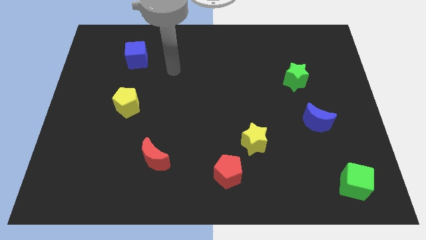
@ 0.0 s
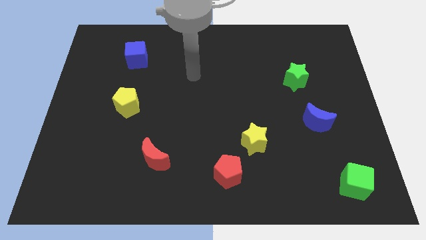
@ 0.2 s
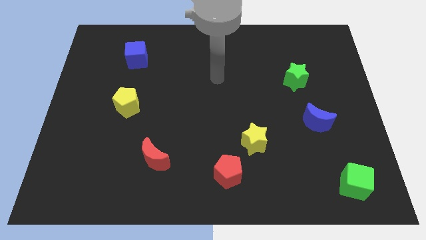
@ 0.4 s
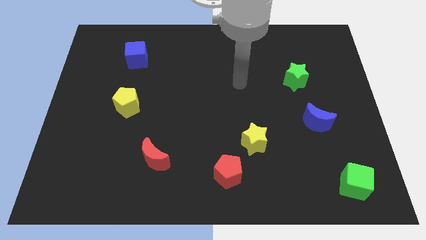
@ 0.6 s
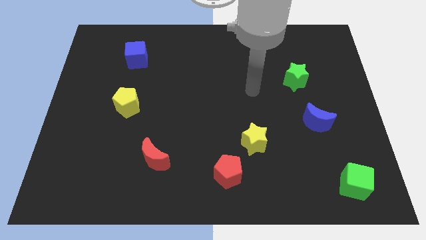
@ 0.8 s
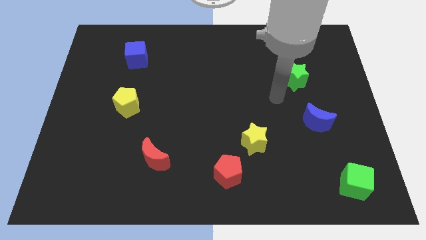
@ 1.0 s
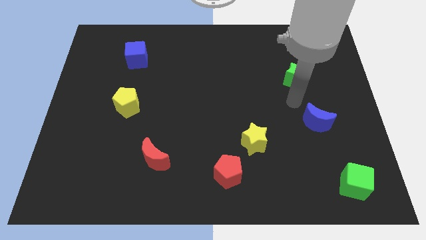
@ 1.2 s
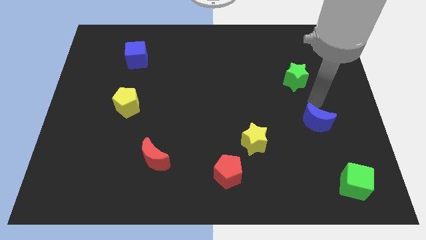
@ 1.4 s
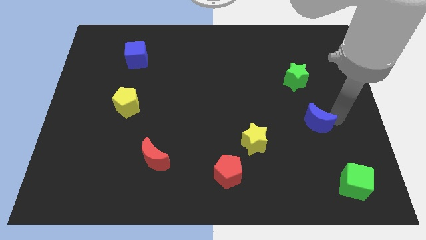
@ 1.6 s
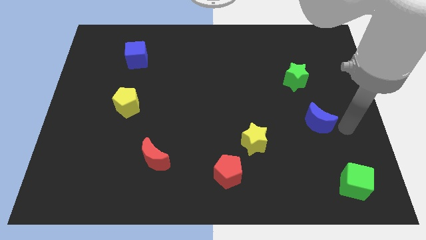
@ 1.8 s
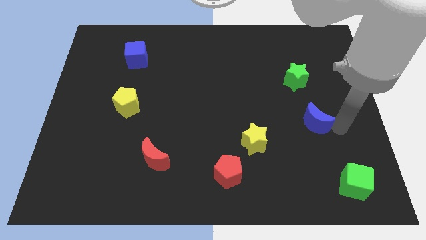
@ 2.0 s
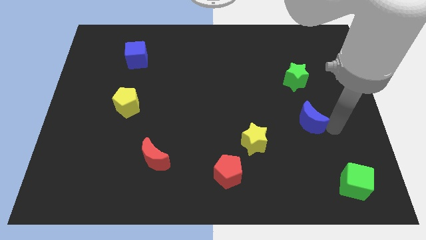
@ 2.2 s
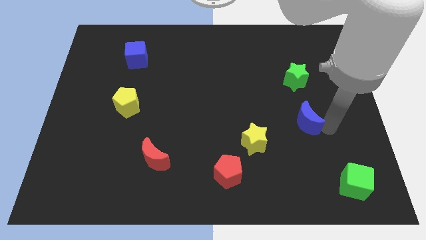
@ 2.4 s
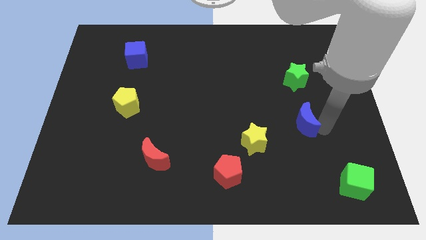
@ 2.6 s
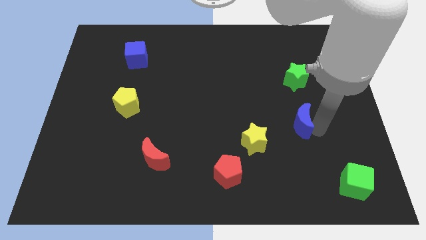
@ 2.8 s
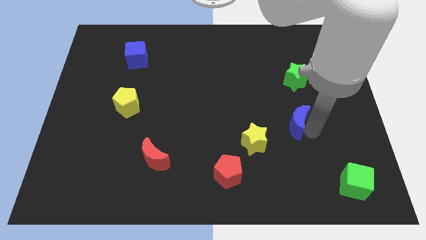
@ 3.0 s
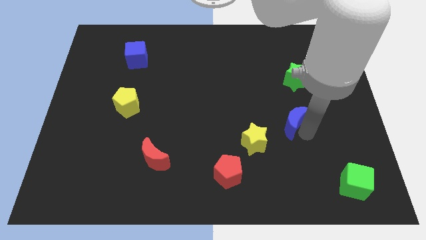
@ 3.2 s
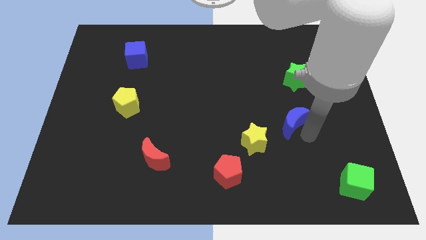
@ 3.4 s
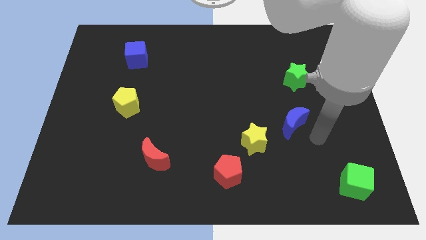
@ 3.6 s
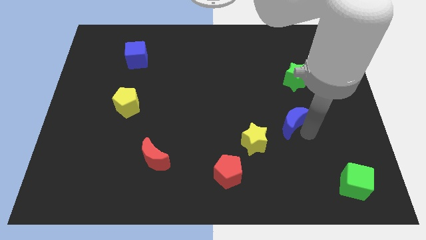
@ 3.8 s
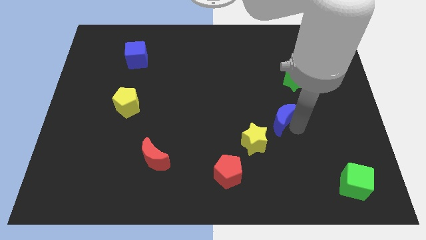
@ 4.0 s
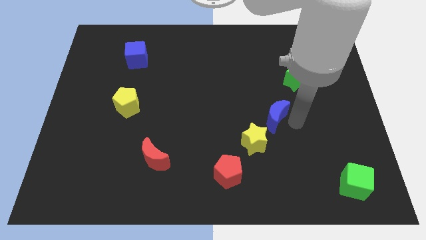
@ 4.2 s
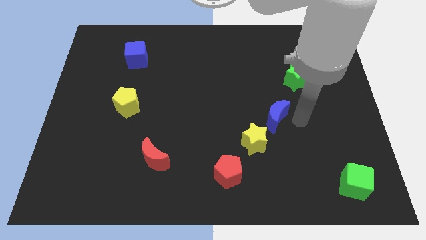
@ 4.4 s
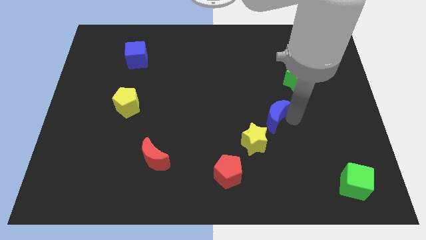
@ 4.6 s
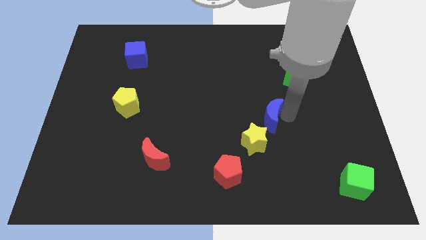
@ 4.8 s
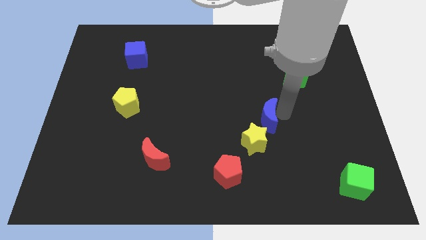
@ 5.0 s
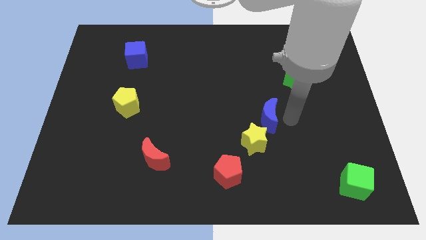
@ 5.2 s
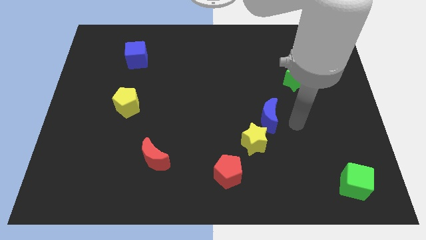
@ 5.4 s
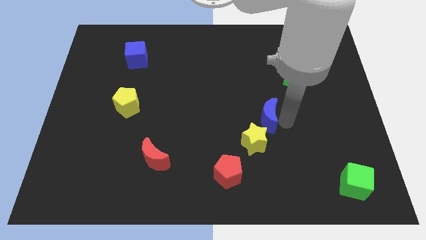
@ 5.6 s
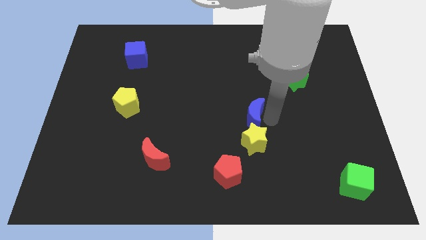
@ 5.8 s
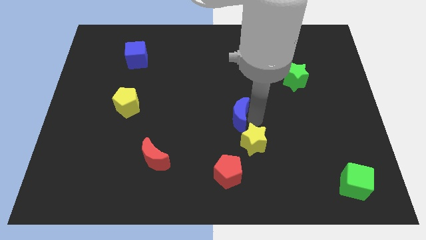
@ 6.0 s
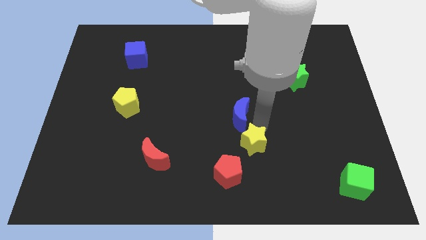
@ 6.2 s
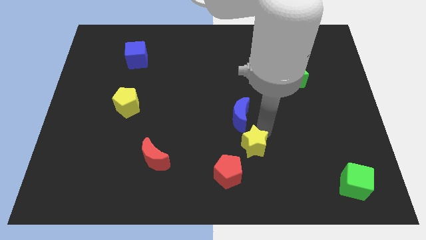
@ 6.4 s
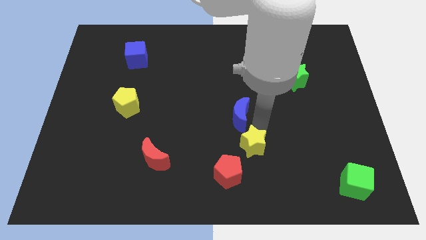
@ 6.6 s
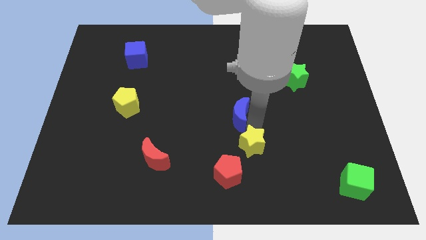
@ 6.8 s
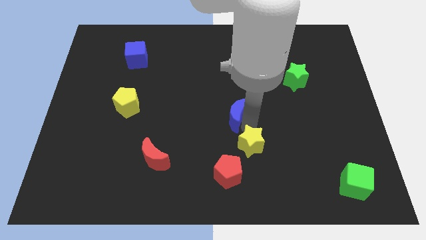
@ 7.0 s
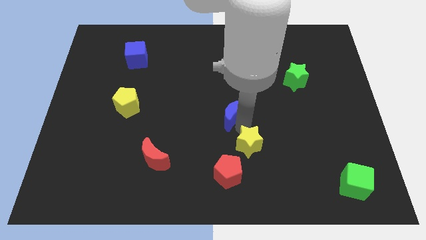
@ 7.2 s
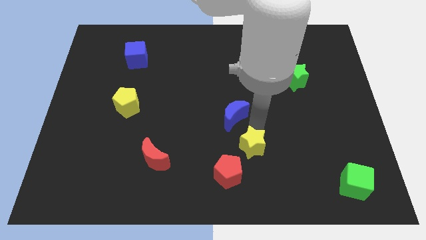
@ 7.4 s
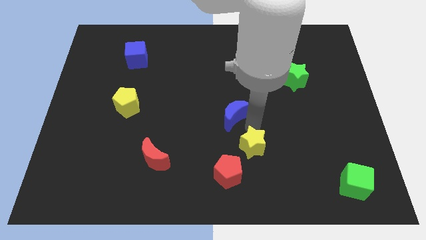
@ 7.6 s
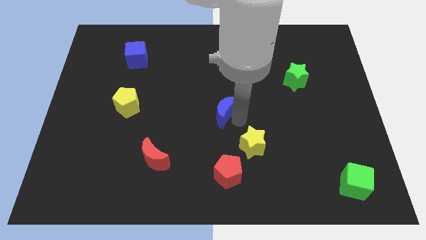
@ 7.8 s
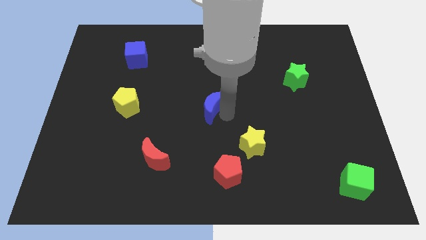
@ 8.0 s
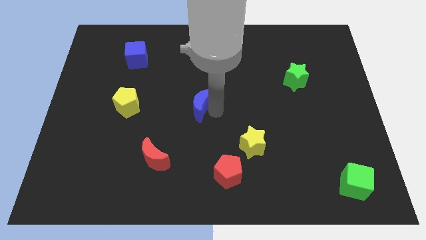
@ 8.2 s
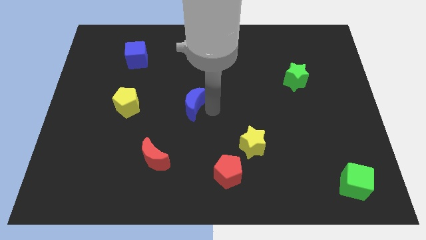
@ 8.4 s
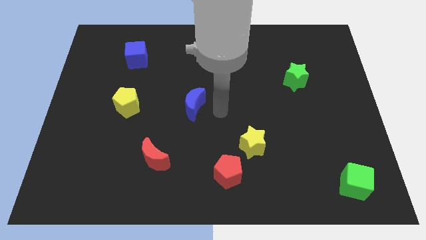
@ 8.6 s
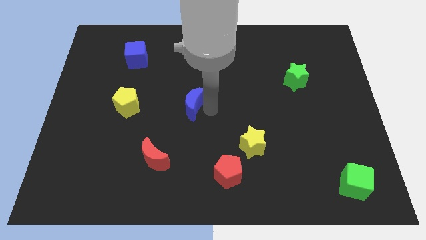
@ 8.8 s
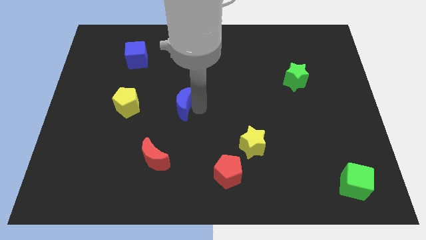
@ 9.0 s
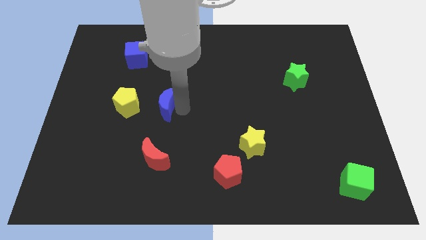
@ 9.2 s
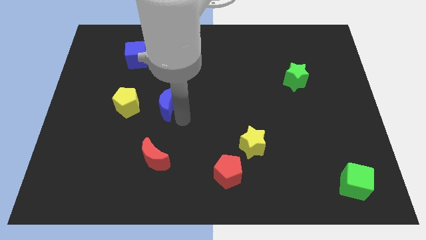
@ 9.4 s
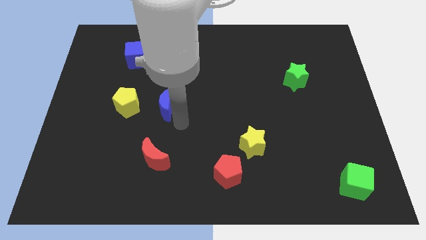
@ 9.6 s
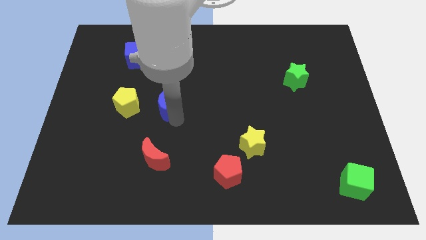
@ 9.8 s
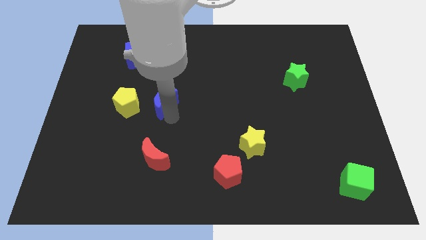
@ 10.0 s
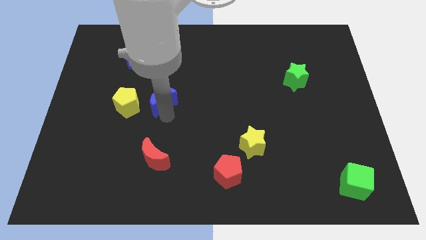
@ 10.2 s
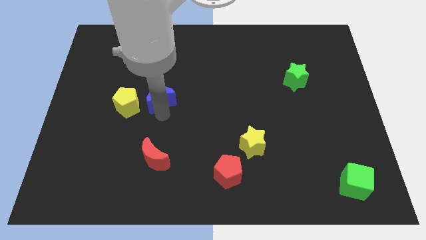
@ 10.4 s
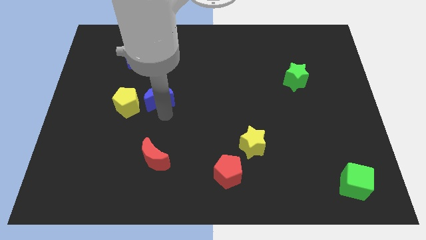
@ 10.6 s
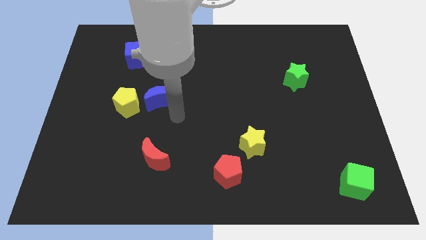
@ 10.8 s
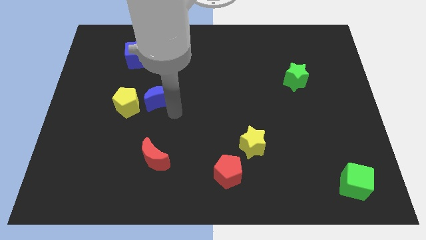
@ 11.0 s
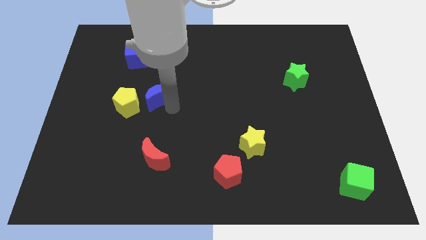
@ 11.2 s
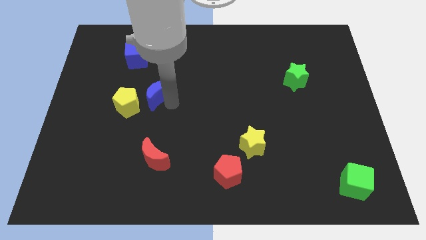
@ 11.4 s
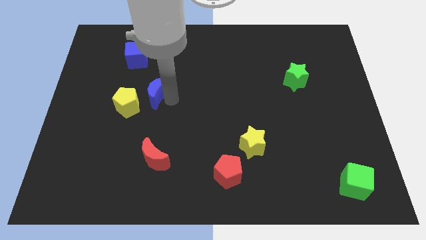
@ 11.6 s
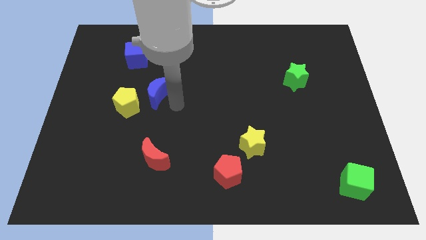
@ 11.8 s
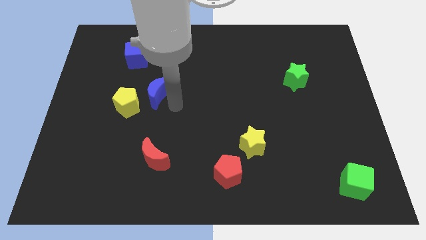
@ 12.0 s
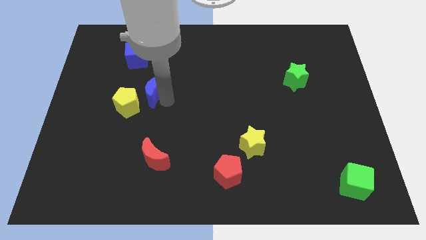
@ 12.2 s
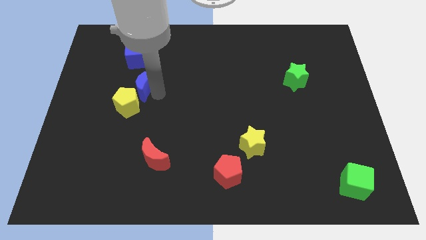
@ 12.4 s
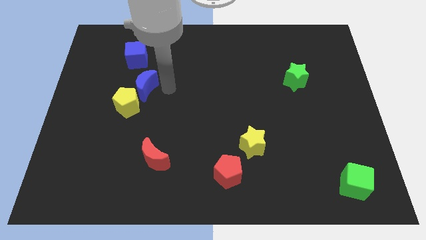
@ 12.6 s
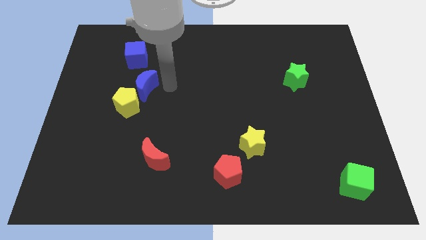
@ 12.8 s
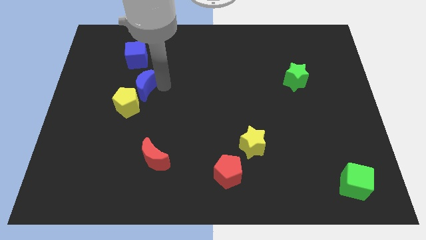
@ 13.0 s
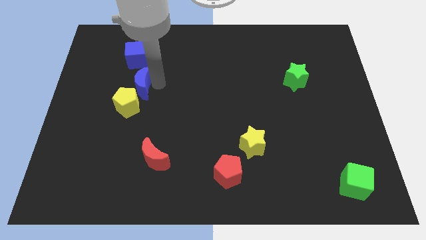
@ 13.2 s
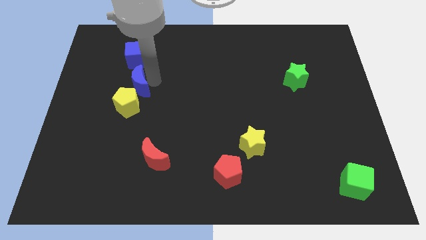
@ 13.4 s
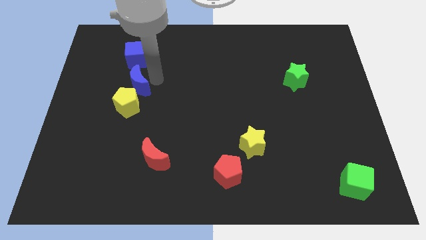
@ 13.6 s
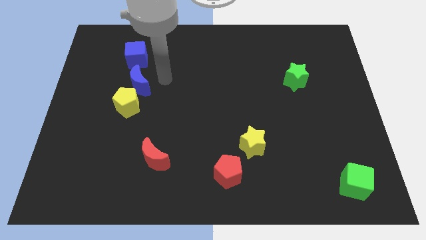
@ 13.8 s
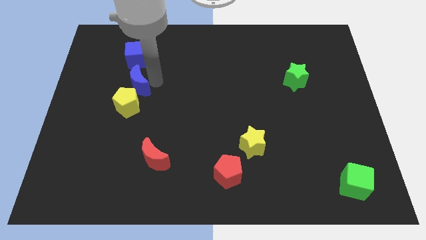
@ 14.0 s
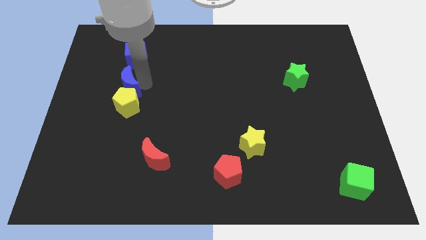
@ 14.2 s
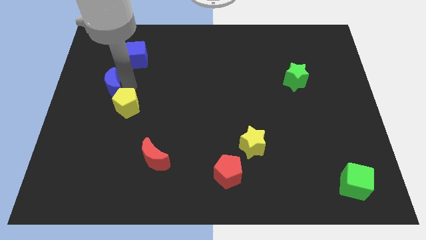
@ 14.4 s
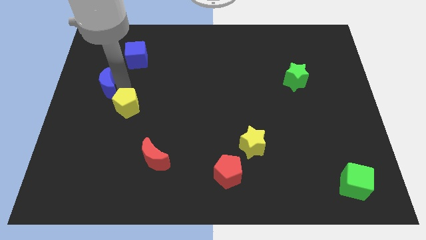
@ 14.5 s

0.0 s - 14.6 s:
move the blue moon to the left side
